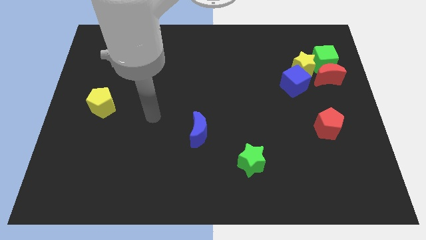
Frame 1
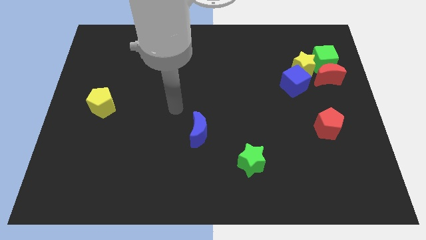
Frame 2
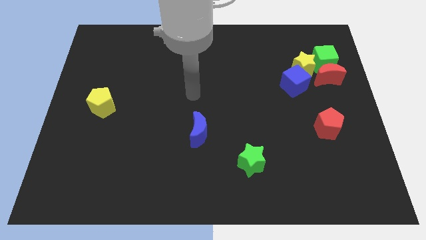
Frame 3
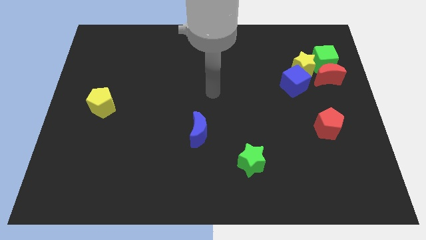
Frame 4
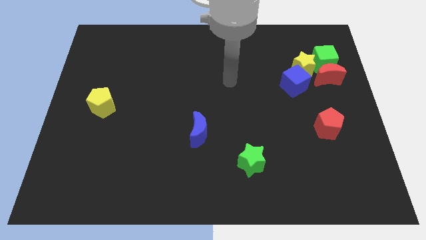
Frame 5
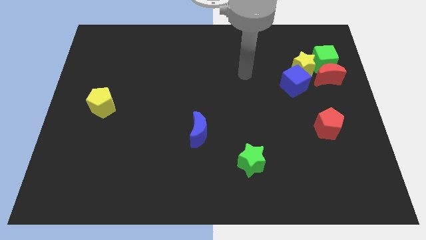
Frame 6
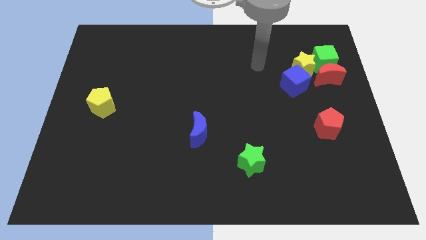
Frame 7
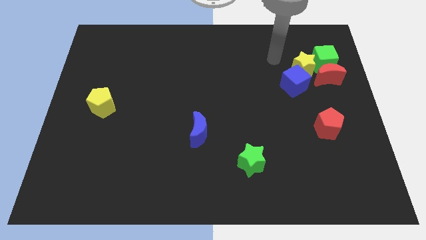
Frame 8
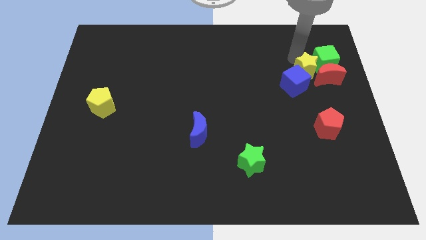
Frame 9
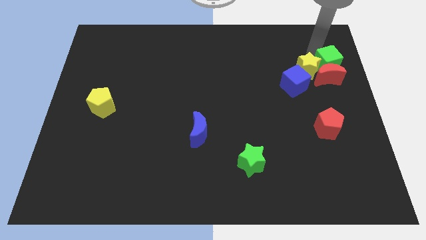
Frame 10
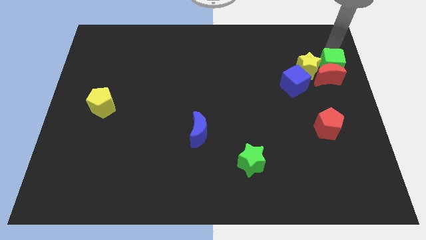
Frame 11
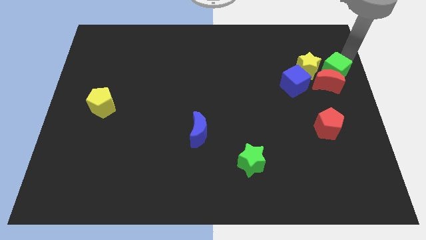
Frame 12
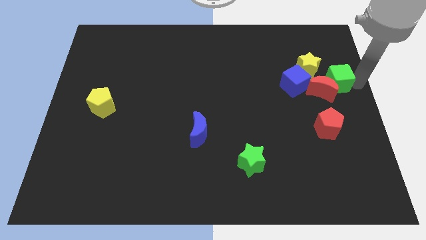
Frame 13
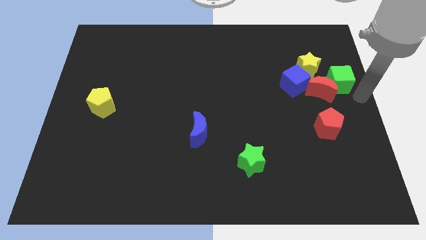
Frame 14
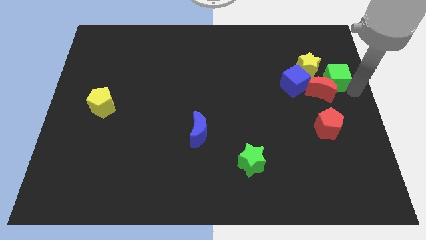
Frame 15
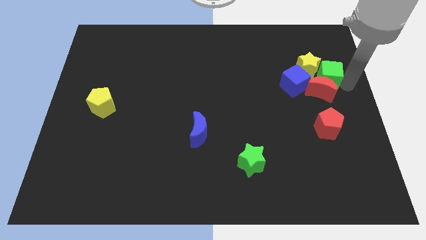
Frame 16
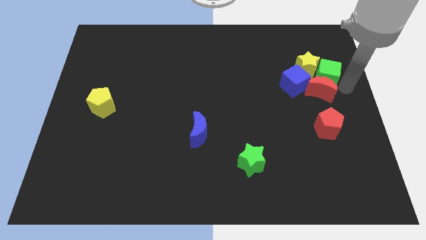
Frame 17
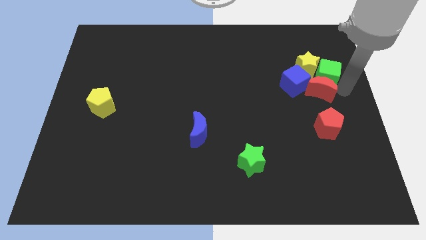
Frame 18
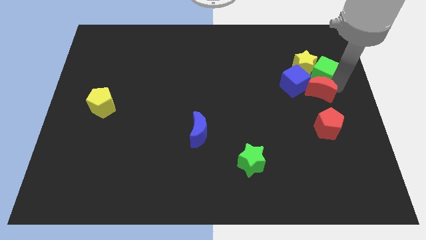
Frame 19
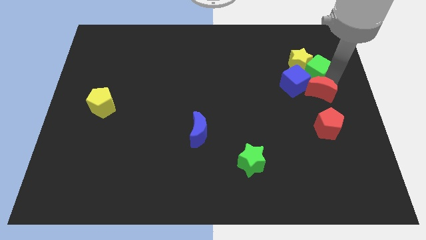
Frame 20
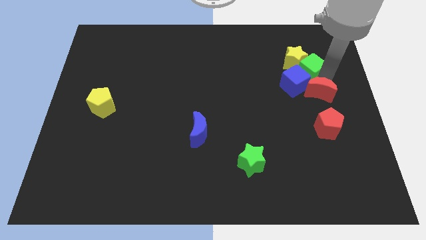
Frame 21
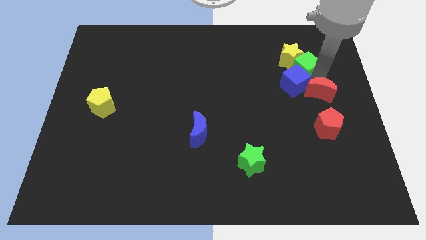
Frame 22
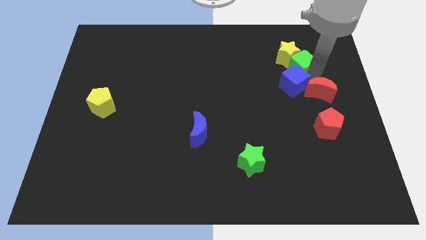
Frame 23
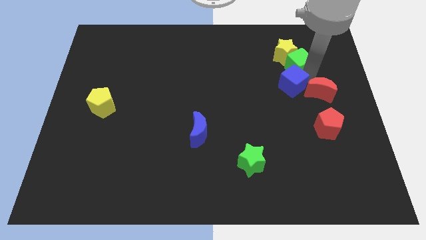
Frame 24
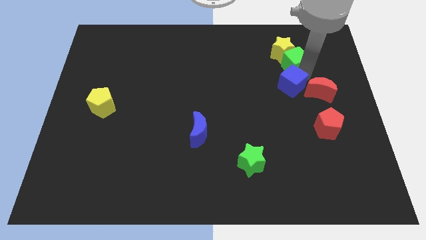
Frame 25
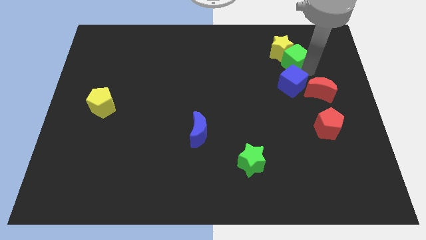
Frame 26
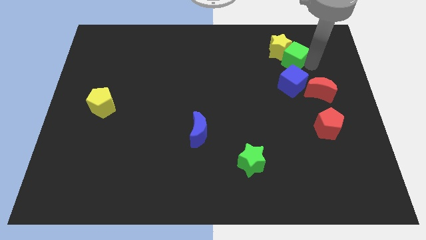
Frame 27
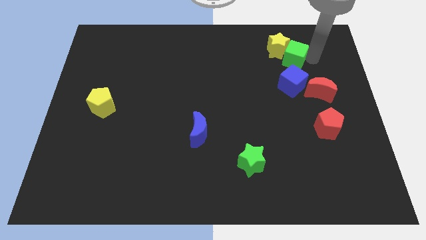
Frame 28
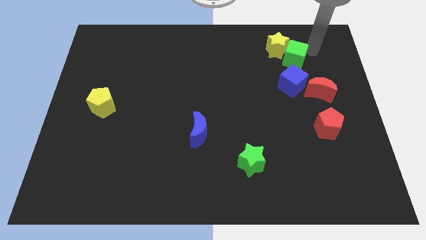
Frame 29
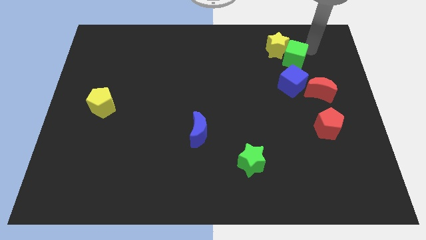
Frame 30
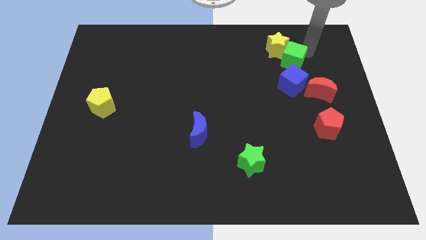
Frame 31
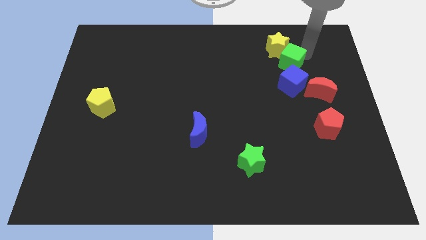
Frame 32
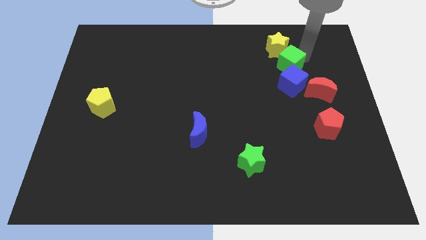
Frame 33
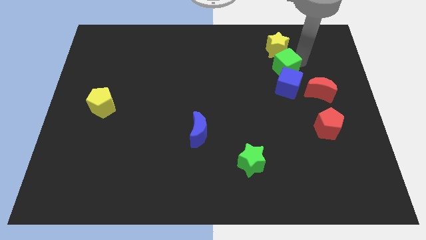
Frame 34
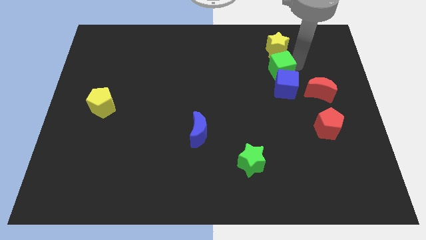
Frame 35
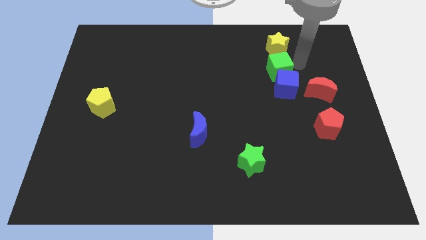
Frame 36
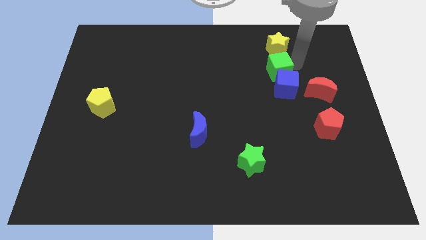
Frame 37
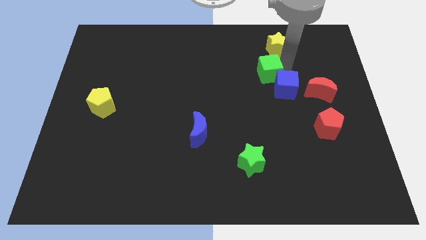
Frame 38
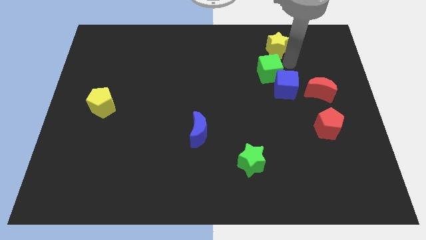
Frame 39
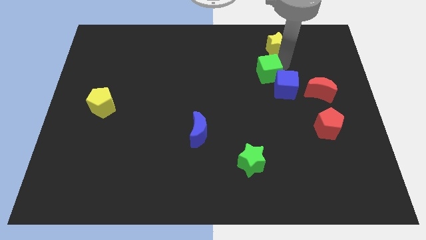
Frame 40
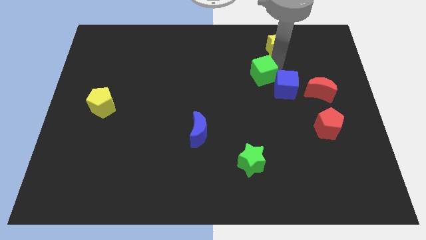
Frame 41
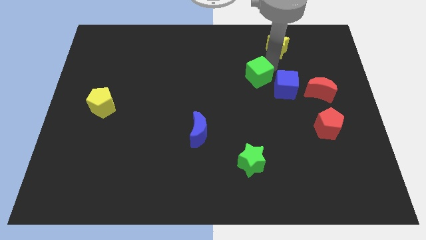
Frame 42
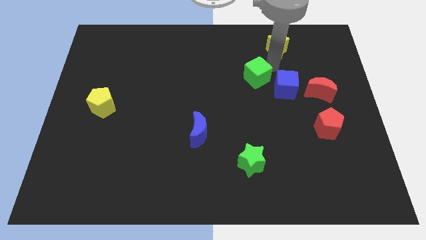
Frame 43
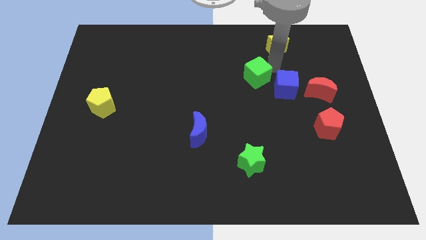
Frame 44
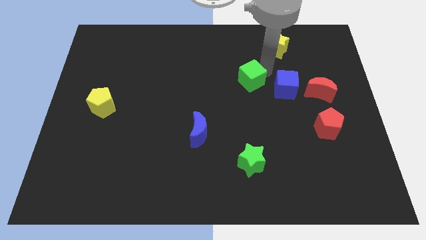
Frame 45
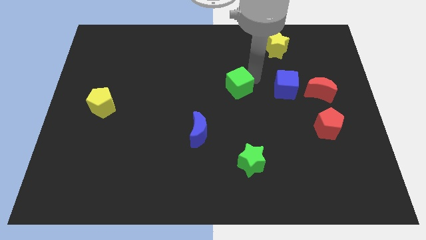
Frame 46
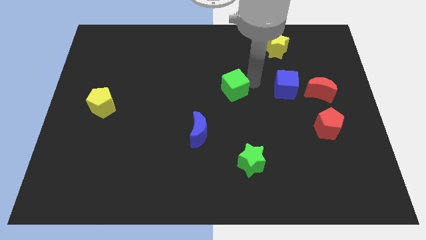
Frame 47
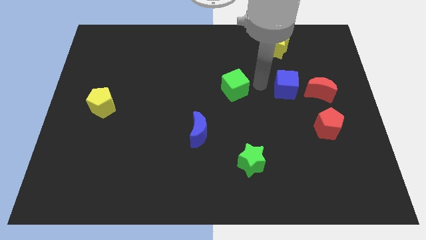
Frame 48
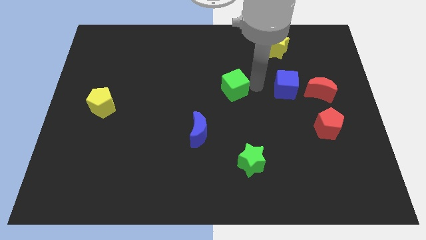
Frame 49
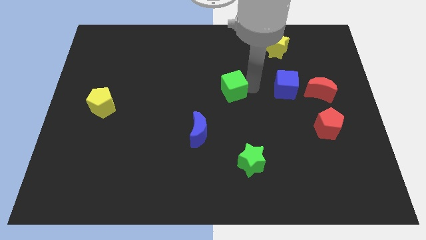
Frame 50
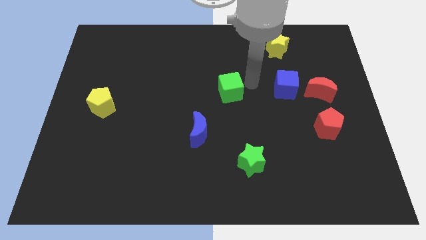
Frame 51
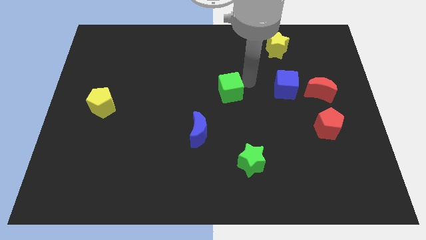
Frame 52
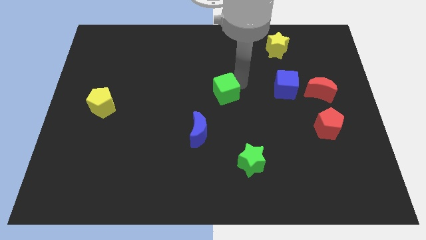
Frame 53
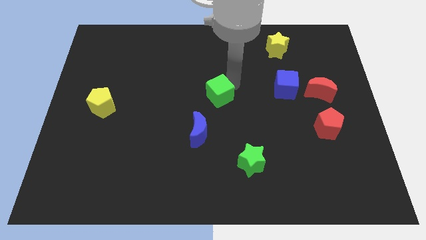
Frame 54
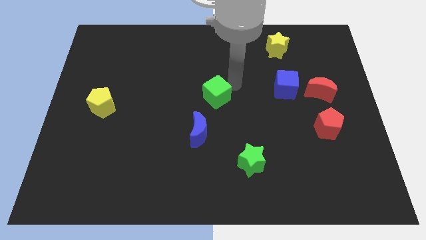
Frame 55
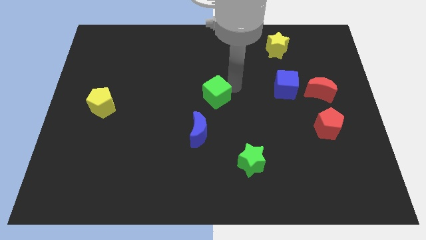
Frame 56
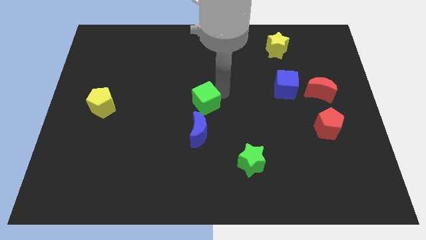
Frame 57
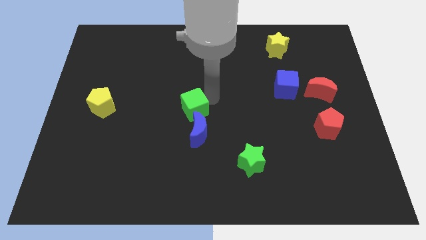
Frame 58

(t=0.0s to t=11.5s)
slide the green cube diagonally up and to the left of the blue moon
